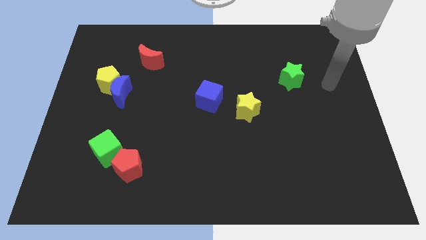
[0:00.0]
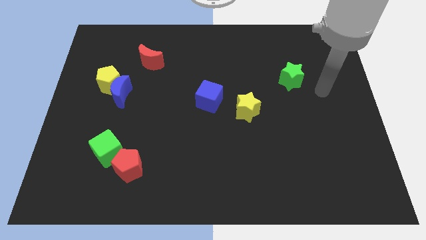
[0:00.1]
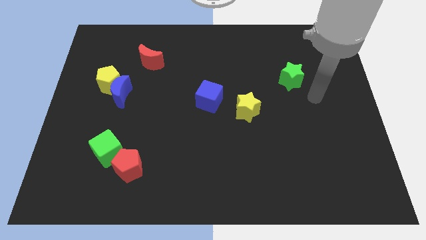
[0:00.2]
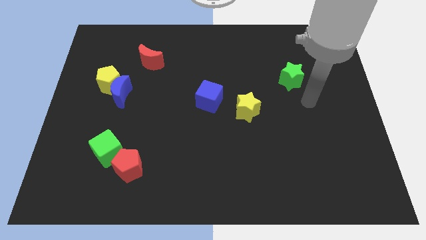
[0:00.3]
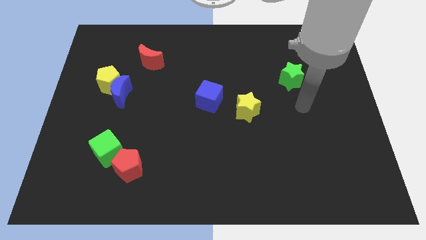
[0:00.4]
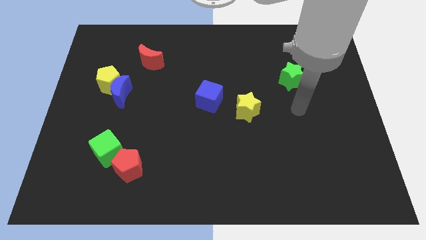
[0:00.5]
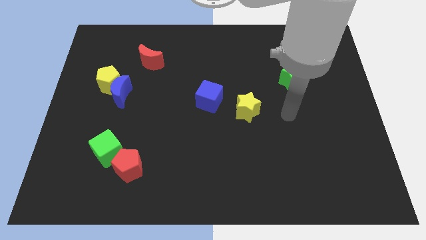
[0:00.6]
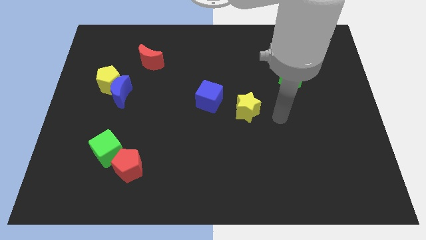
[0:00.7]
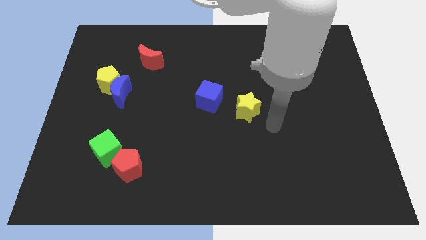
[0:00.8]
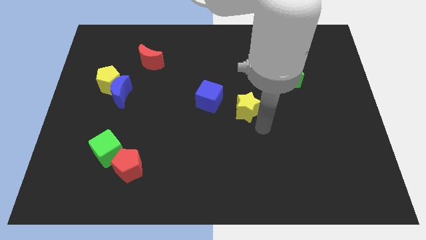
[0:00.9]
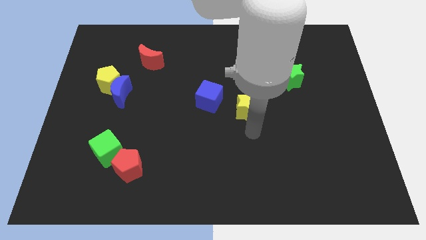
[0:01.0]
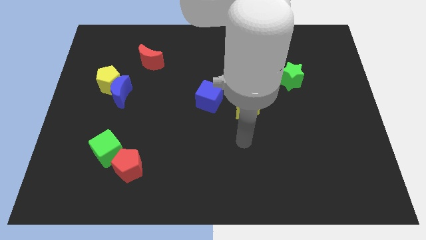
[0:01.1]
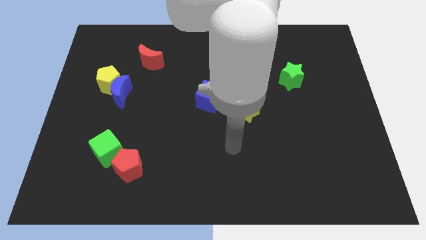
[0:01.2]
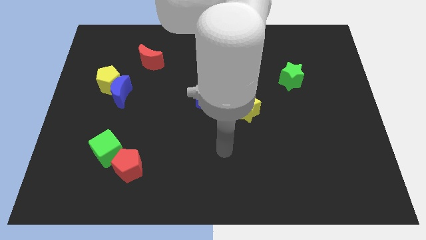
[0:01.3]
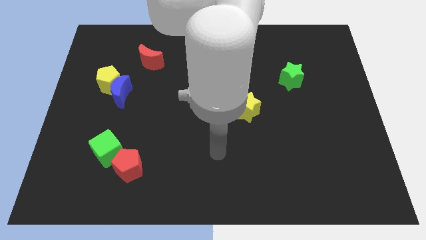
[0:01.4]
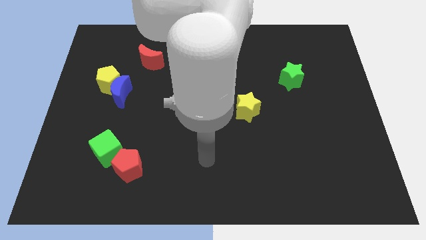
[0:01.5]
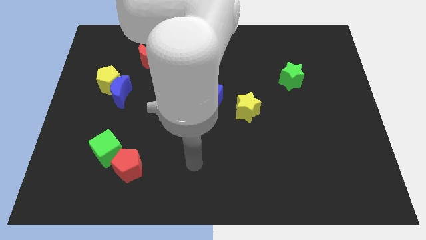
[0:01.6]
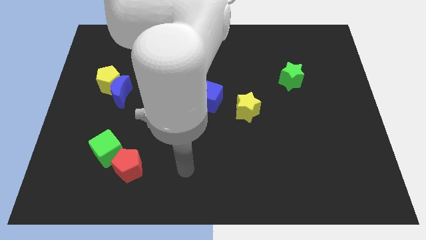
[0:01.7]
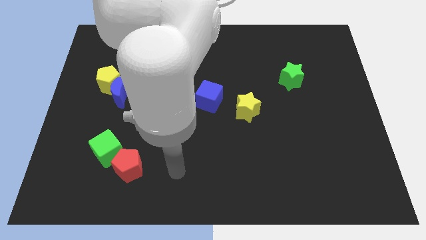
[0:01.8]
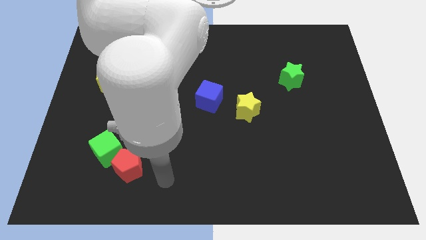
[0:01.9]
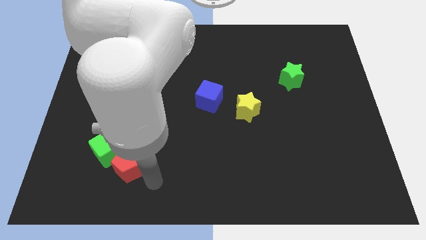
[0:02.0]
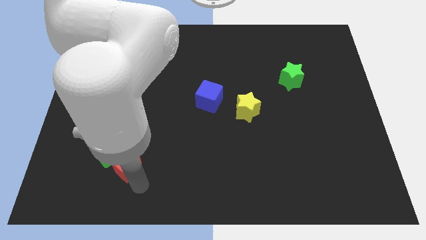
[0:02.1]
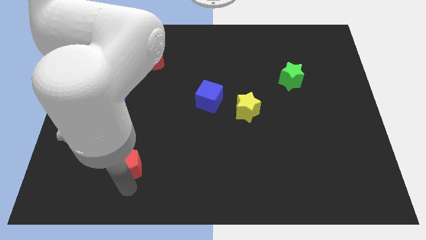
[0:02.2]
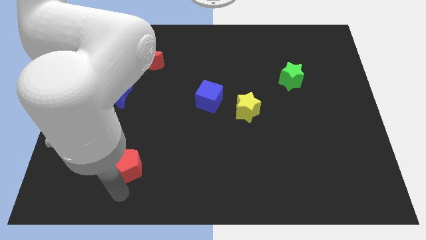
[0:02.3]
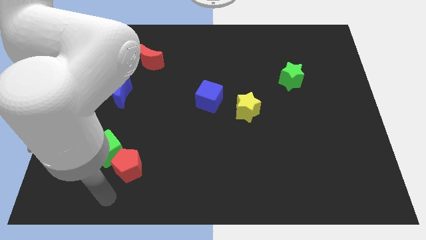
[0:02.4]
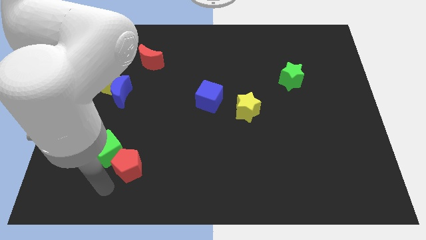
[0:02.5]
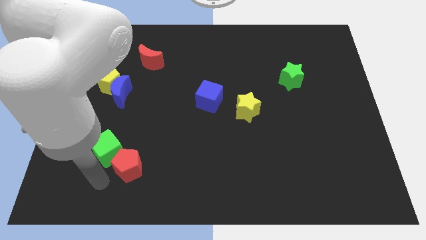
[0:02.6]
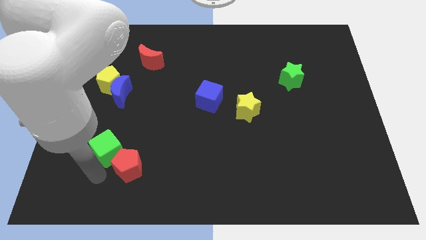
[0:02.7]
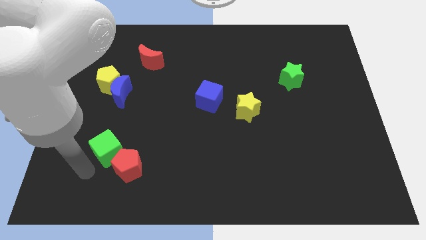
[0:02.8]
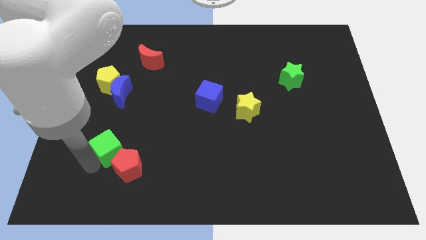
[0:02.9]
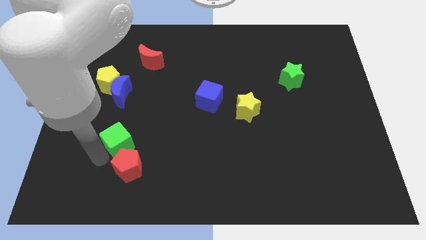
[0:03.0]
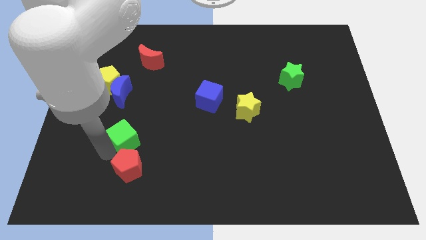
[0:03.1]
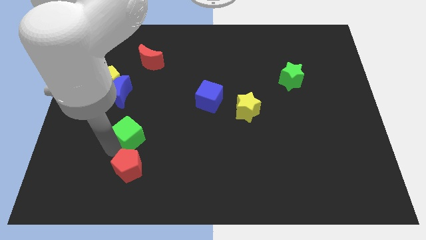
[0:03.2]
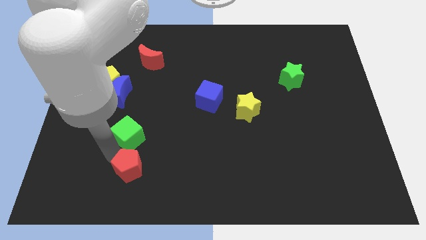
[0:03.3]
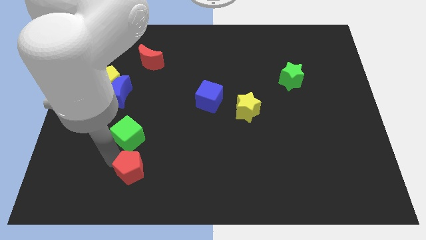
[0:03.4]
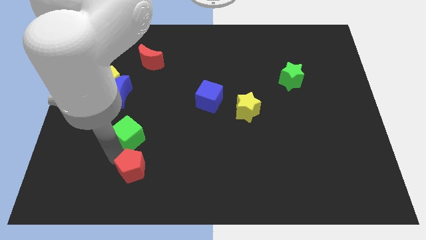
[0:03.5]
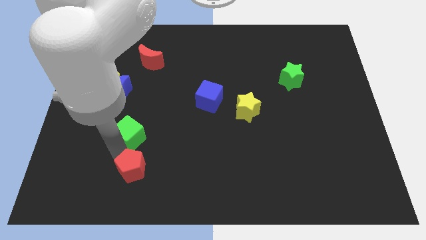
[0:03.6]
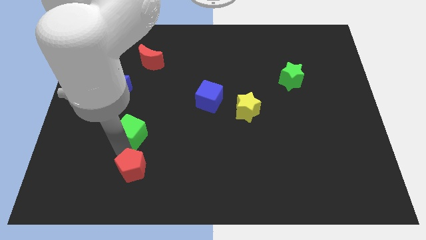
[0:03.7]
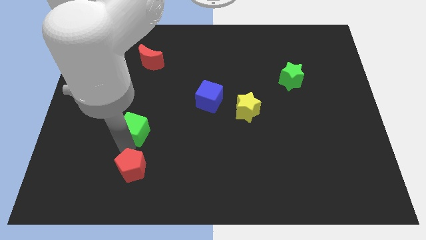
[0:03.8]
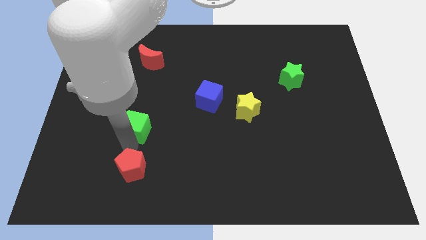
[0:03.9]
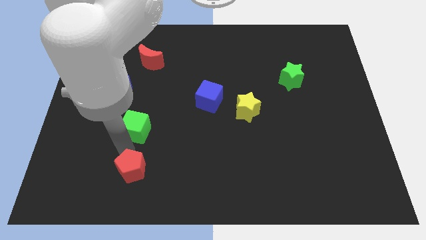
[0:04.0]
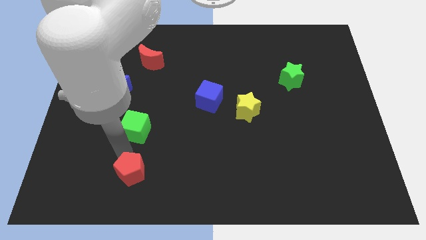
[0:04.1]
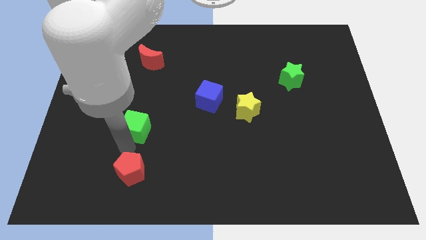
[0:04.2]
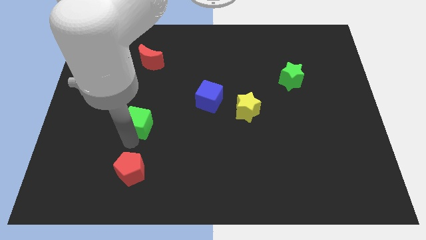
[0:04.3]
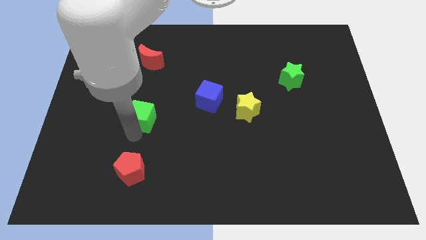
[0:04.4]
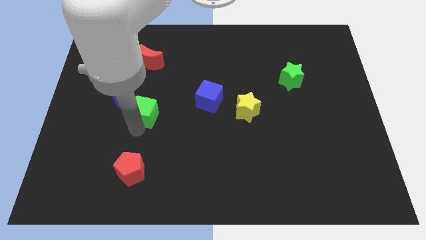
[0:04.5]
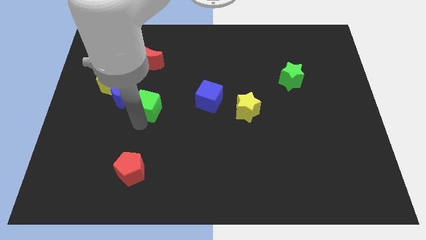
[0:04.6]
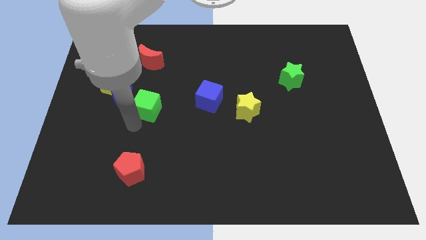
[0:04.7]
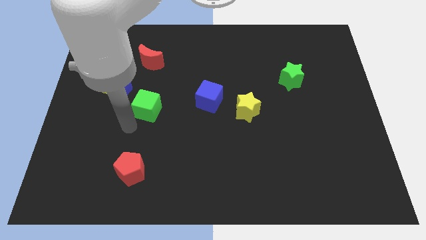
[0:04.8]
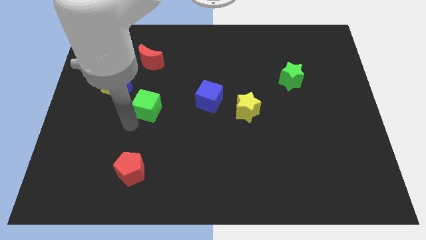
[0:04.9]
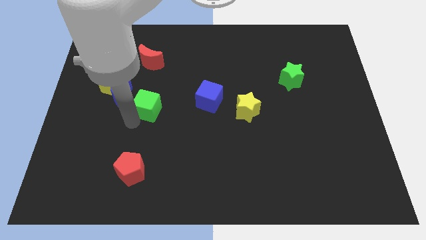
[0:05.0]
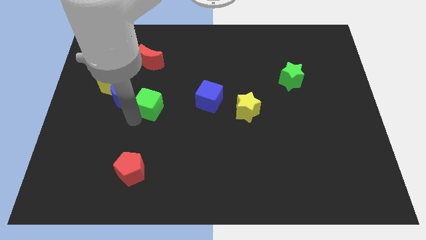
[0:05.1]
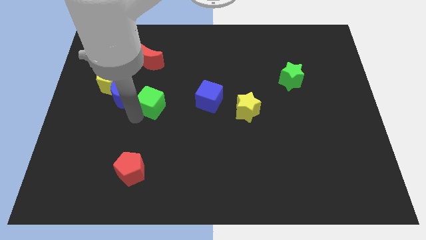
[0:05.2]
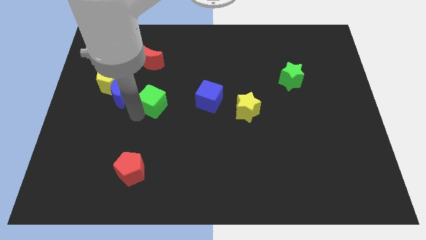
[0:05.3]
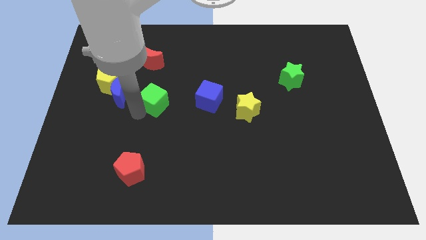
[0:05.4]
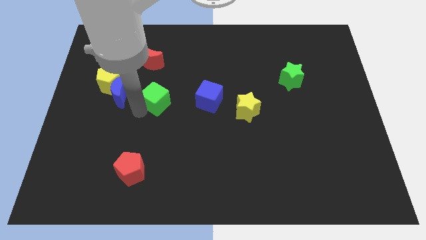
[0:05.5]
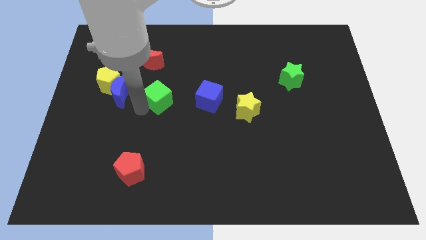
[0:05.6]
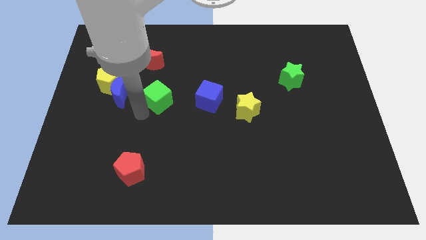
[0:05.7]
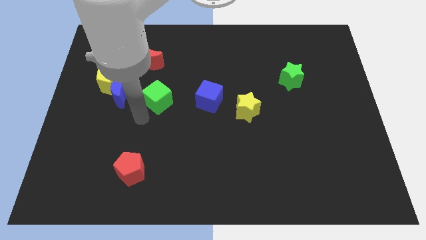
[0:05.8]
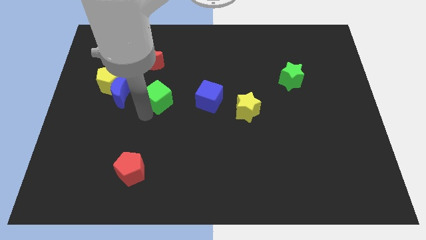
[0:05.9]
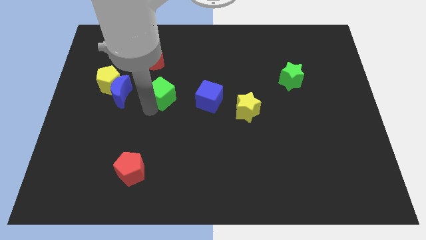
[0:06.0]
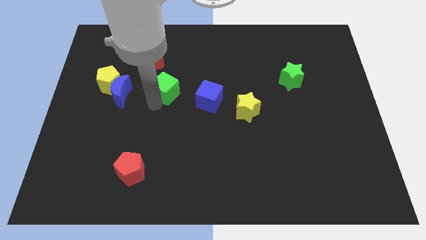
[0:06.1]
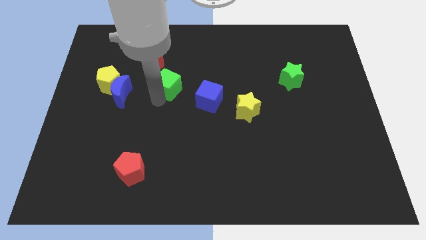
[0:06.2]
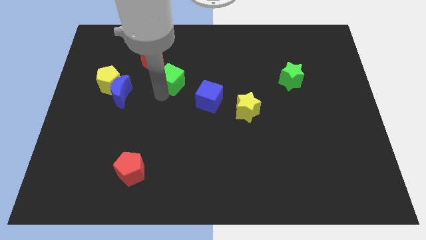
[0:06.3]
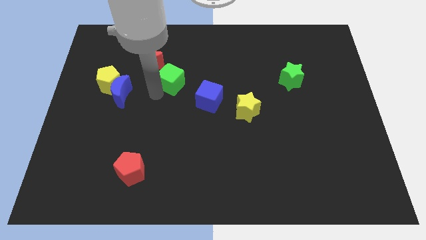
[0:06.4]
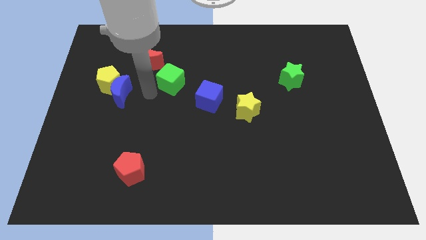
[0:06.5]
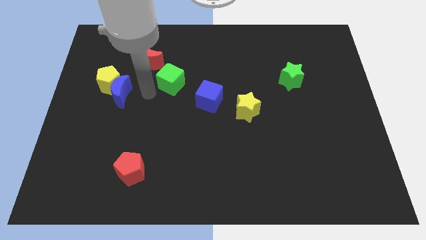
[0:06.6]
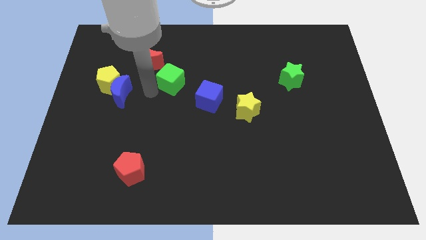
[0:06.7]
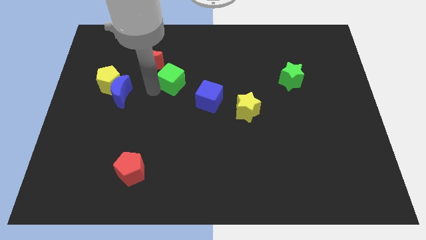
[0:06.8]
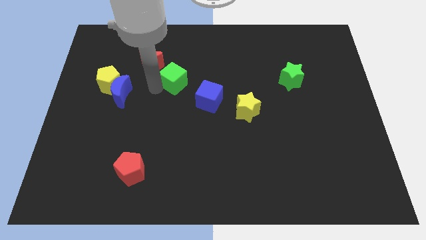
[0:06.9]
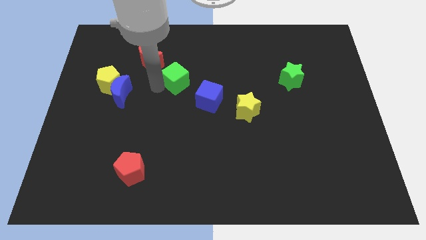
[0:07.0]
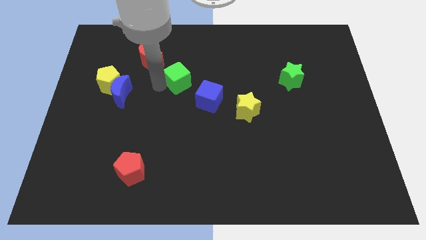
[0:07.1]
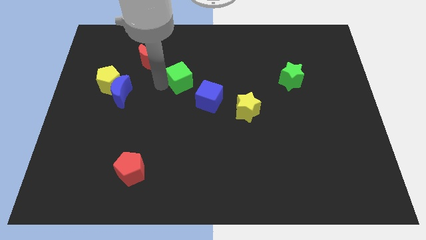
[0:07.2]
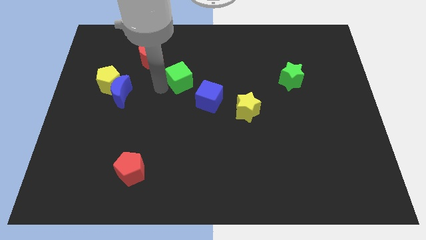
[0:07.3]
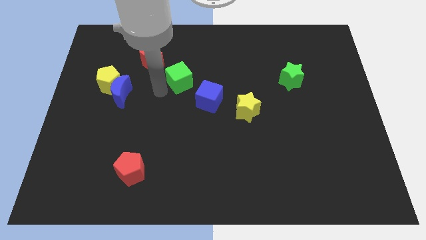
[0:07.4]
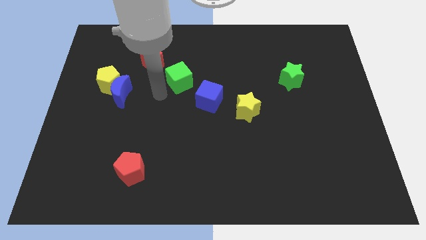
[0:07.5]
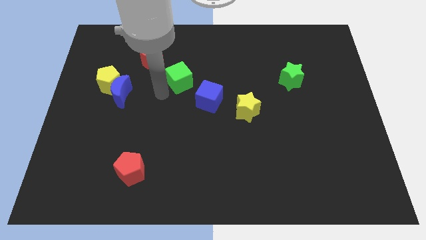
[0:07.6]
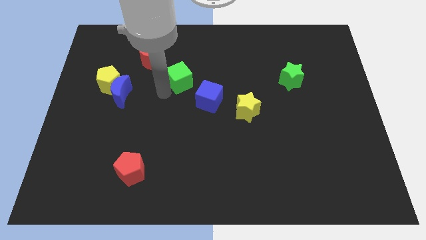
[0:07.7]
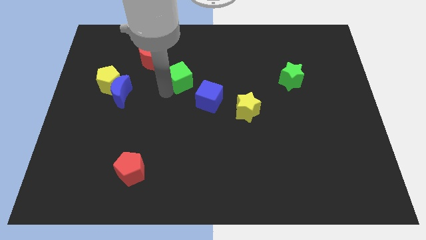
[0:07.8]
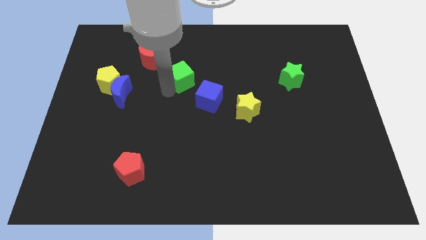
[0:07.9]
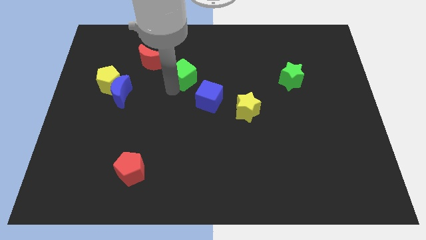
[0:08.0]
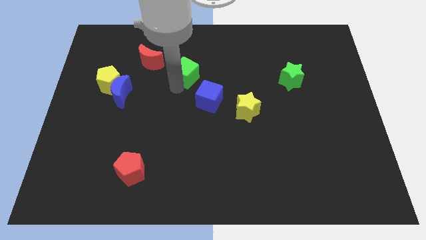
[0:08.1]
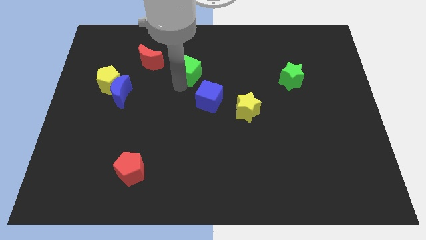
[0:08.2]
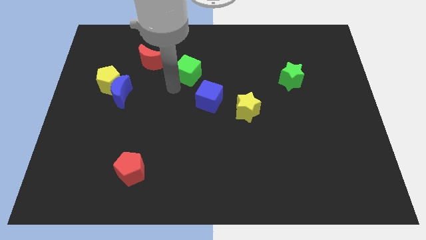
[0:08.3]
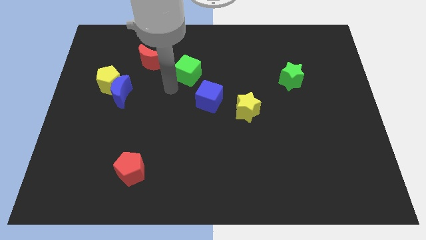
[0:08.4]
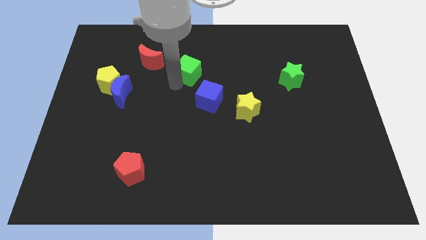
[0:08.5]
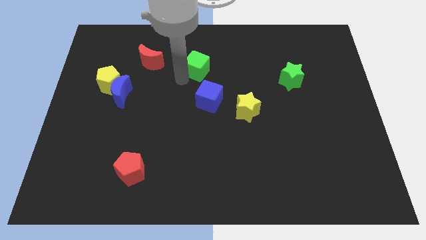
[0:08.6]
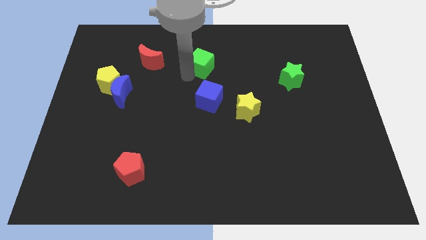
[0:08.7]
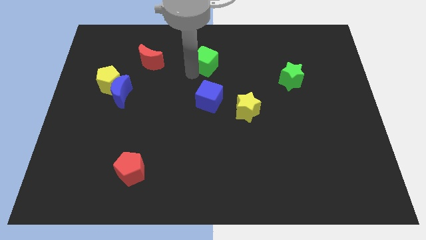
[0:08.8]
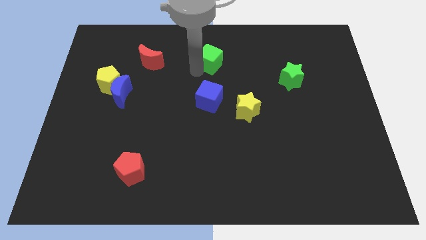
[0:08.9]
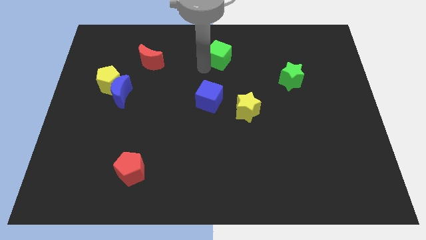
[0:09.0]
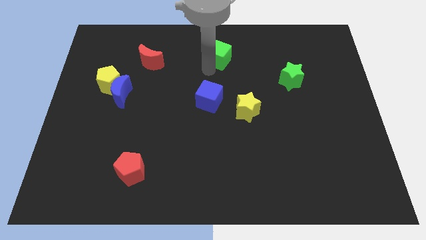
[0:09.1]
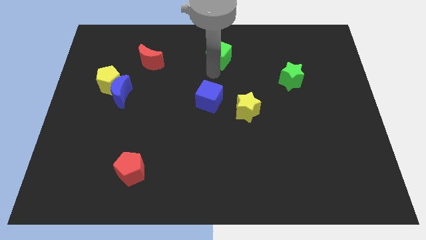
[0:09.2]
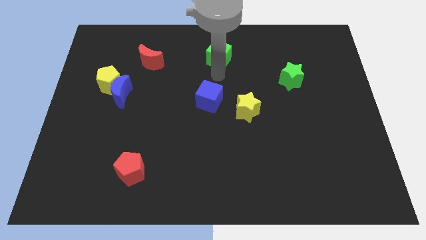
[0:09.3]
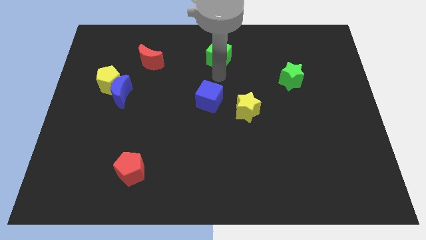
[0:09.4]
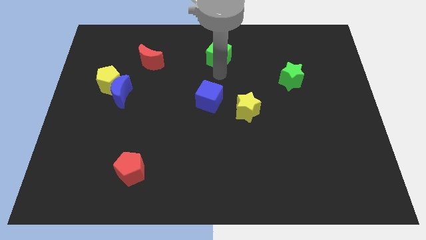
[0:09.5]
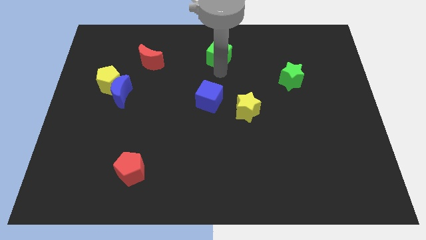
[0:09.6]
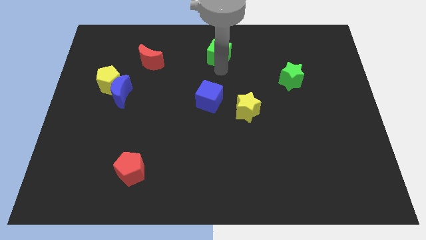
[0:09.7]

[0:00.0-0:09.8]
slide the green cube to the top side
